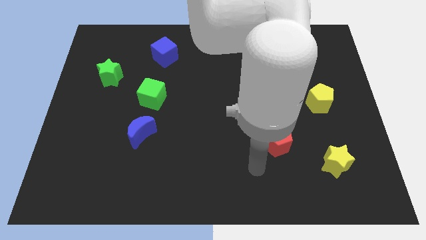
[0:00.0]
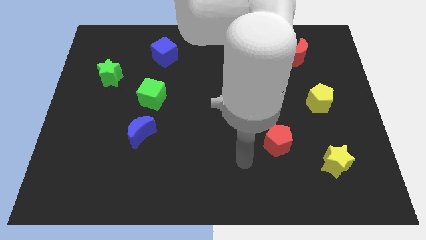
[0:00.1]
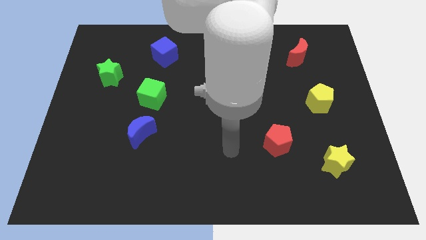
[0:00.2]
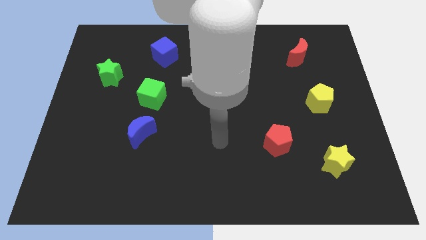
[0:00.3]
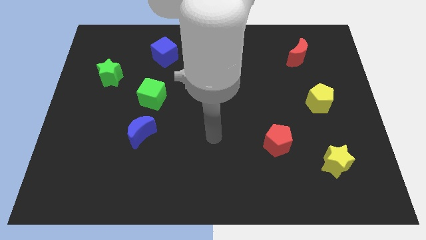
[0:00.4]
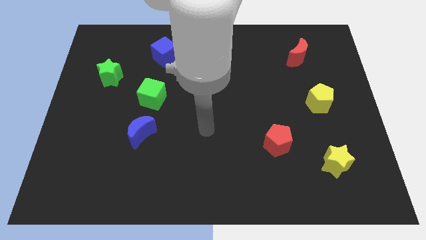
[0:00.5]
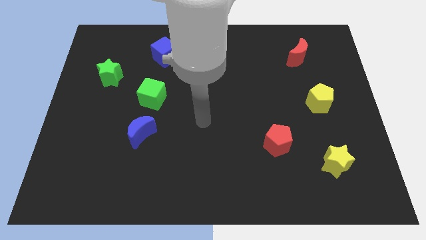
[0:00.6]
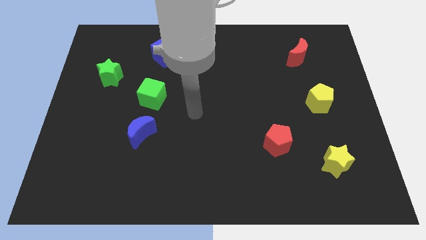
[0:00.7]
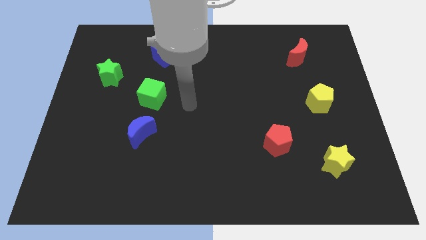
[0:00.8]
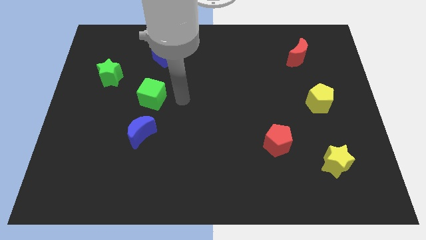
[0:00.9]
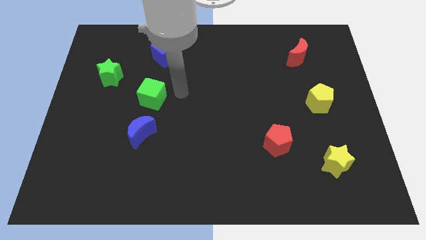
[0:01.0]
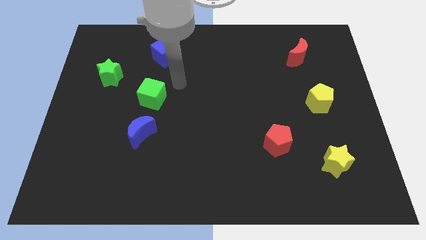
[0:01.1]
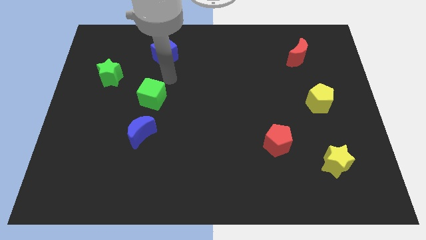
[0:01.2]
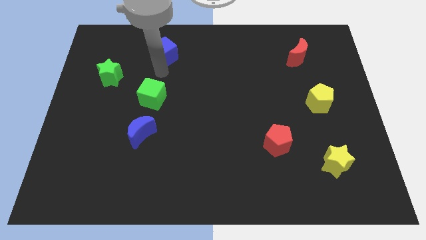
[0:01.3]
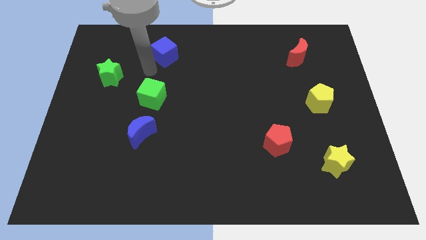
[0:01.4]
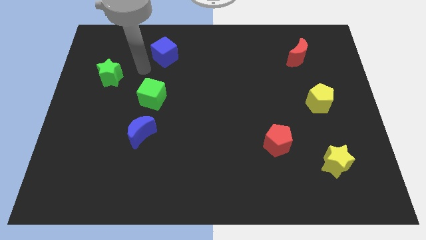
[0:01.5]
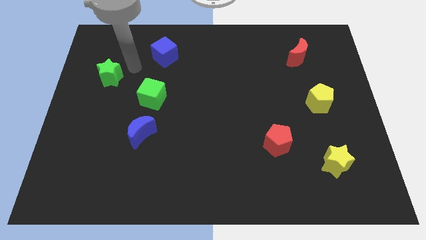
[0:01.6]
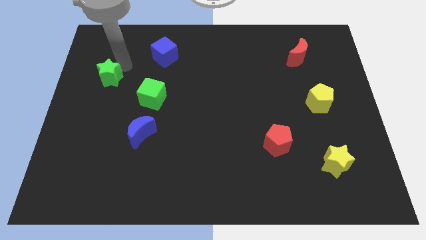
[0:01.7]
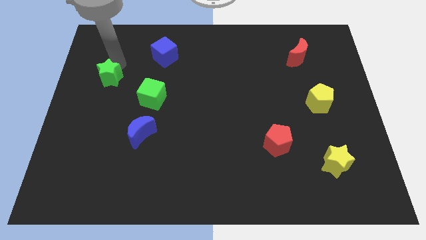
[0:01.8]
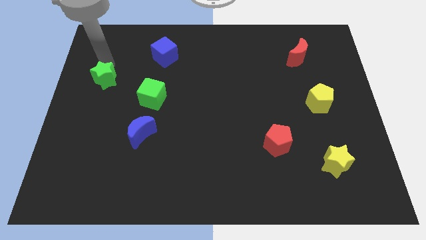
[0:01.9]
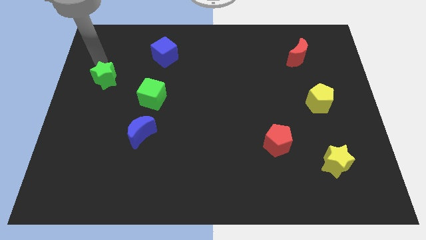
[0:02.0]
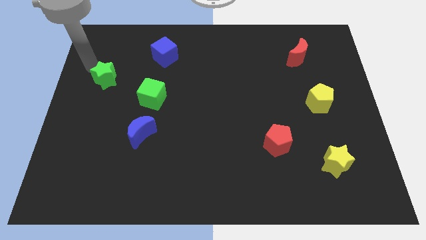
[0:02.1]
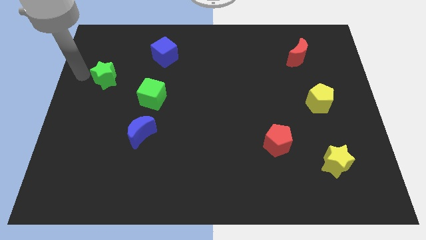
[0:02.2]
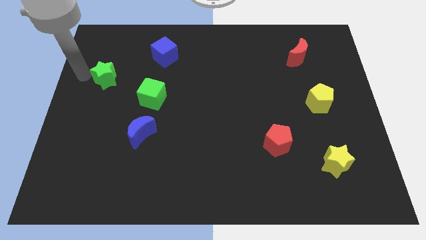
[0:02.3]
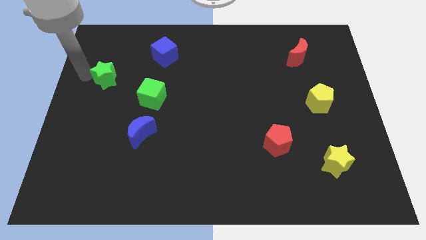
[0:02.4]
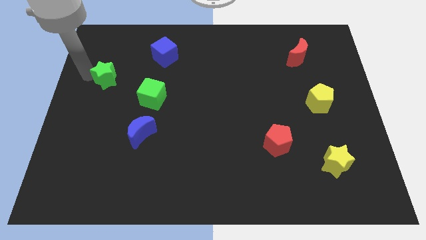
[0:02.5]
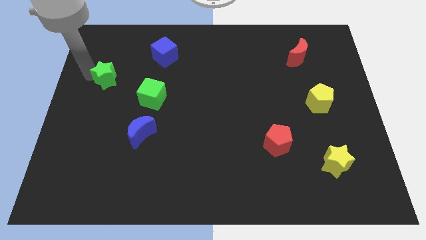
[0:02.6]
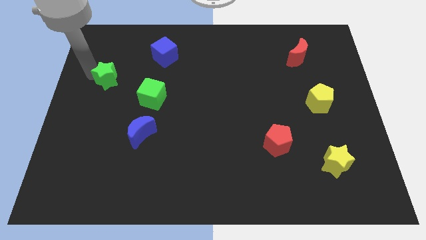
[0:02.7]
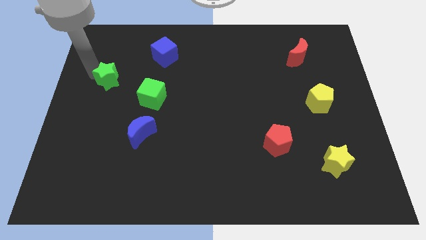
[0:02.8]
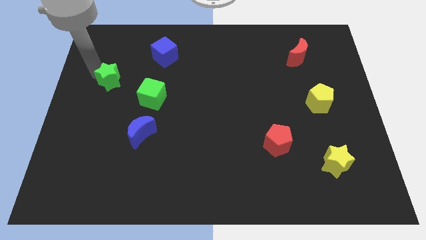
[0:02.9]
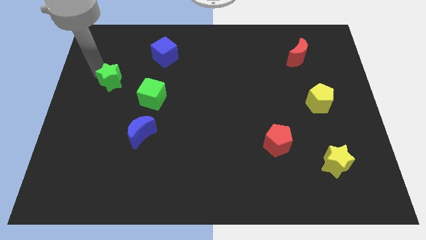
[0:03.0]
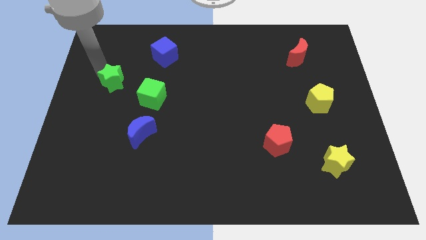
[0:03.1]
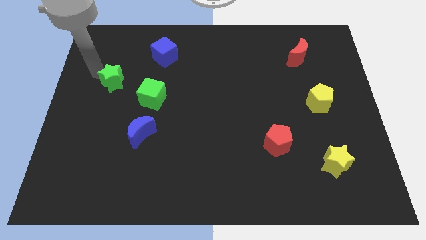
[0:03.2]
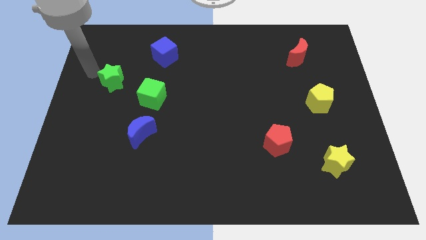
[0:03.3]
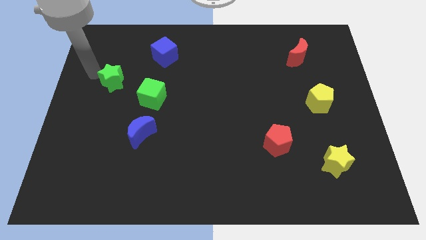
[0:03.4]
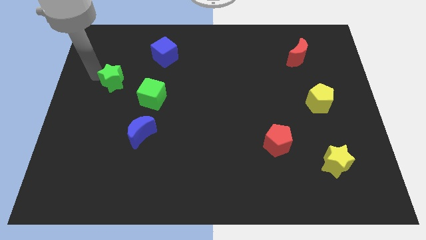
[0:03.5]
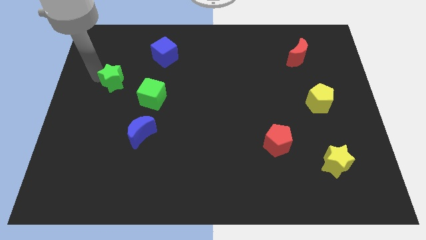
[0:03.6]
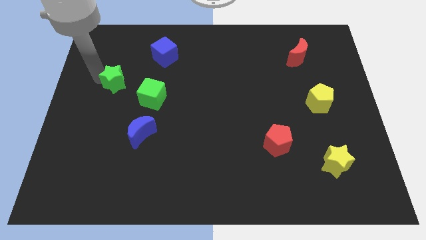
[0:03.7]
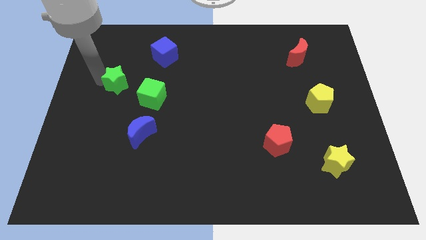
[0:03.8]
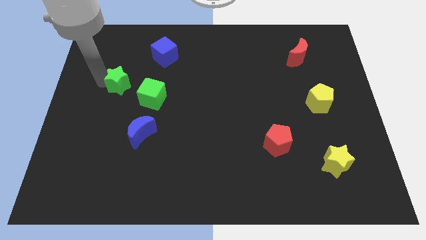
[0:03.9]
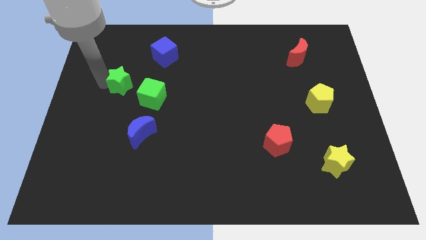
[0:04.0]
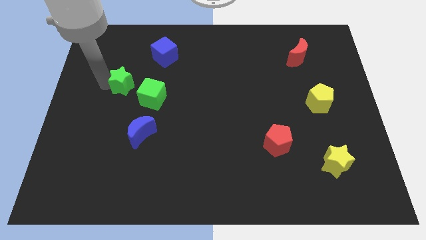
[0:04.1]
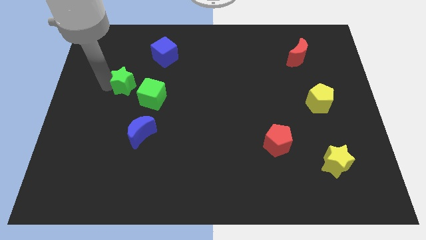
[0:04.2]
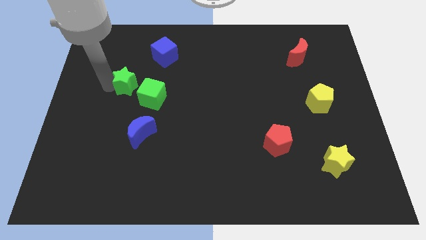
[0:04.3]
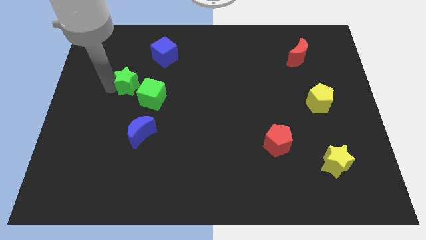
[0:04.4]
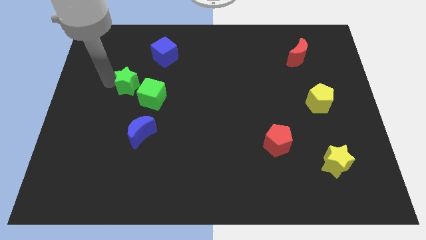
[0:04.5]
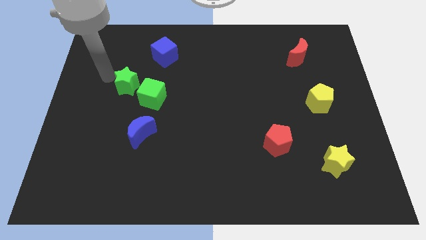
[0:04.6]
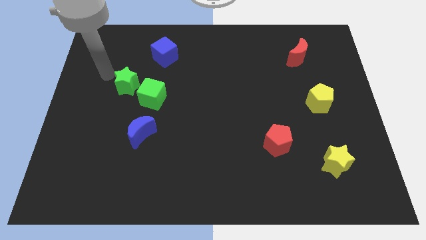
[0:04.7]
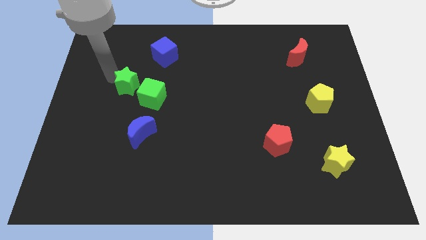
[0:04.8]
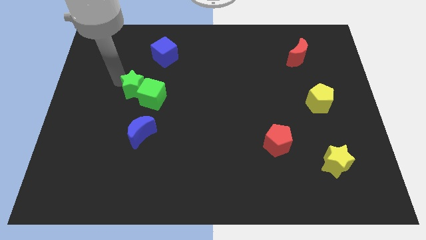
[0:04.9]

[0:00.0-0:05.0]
put the green star to the green cube

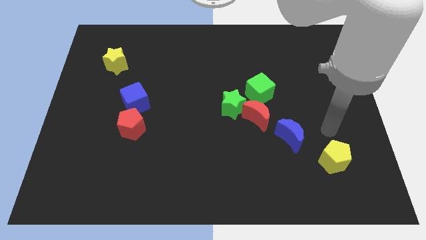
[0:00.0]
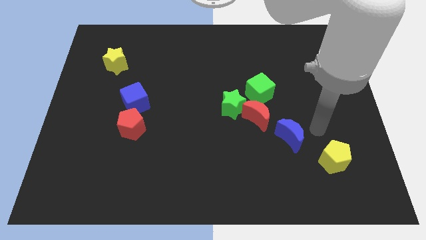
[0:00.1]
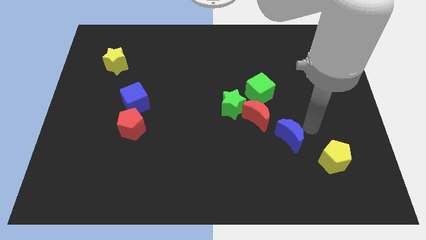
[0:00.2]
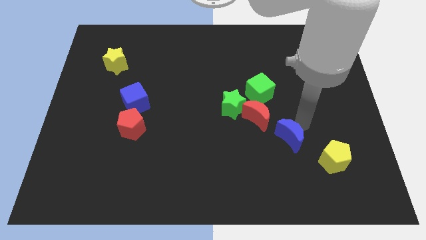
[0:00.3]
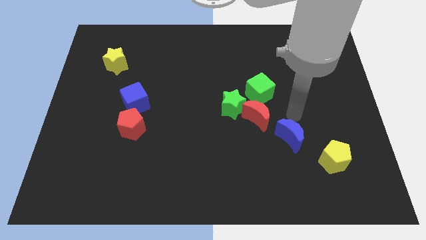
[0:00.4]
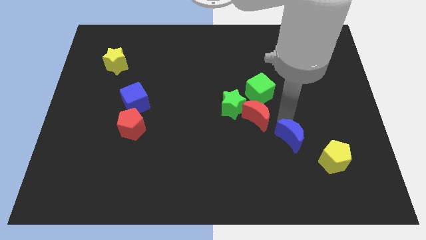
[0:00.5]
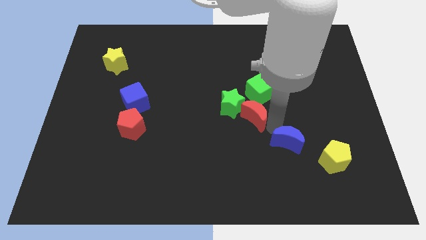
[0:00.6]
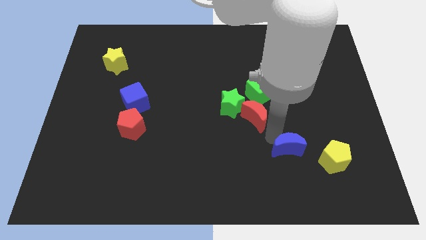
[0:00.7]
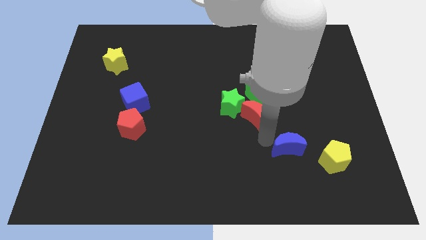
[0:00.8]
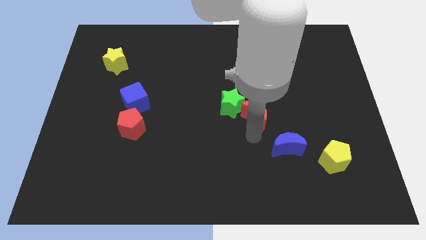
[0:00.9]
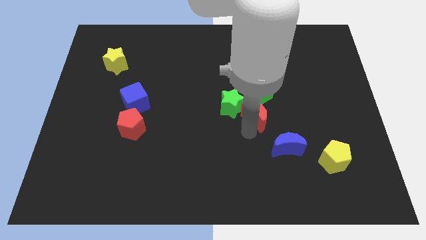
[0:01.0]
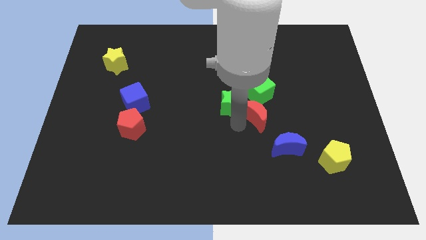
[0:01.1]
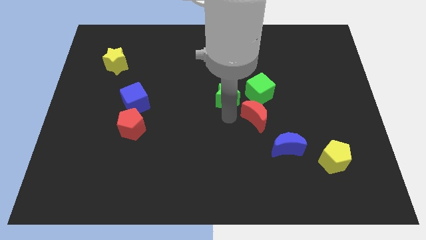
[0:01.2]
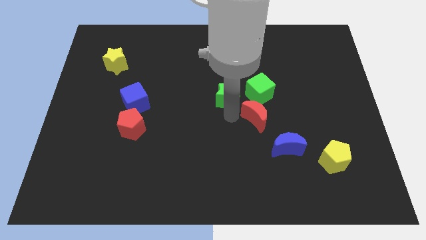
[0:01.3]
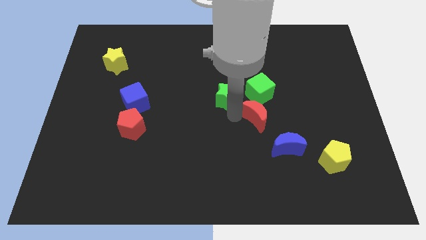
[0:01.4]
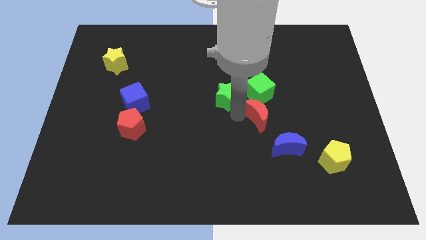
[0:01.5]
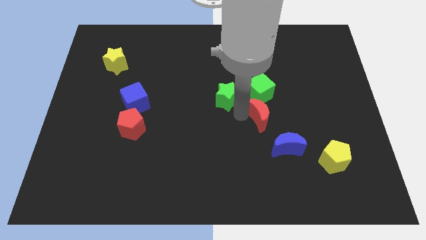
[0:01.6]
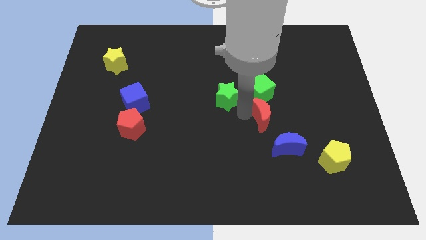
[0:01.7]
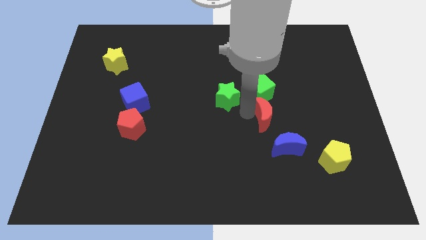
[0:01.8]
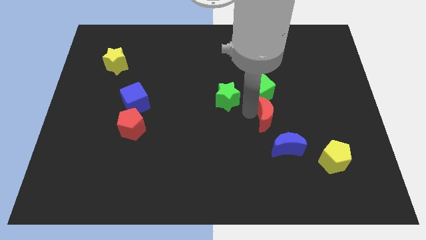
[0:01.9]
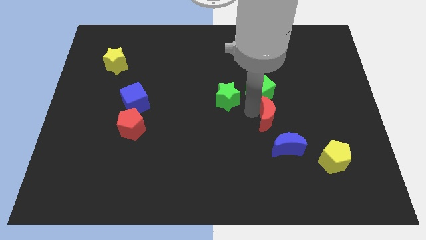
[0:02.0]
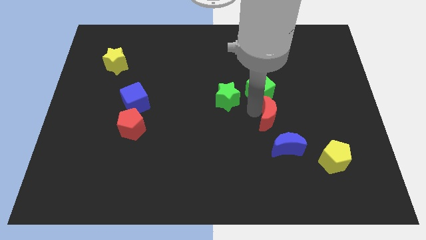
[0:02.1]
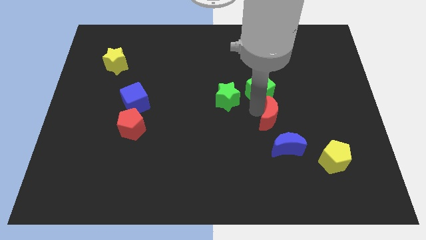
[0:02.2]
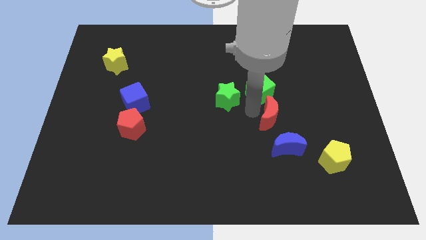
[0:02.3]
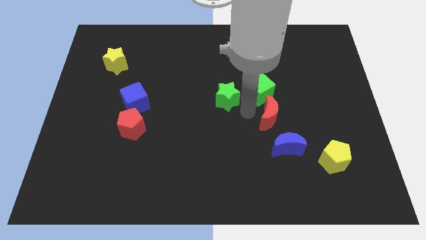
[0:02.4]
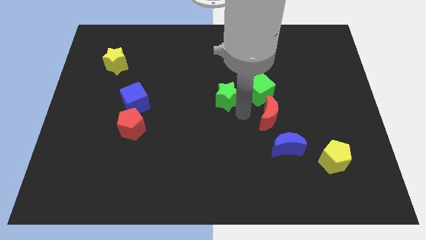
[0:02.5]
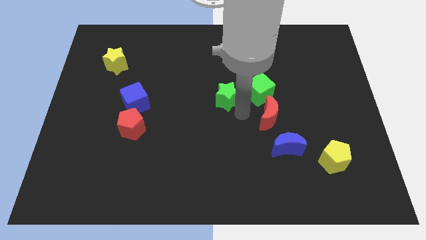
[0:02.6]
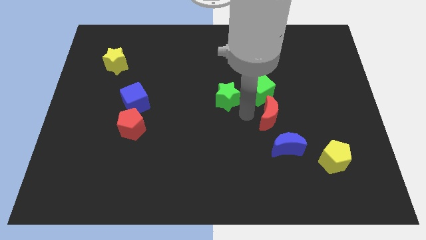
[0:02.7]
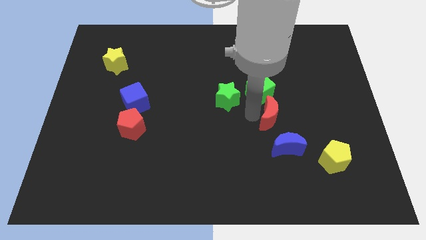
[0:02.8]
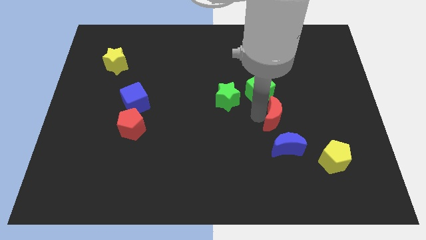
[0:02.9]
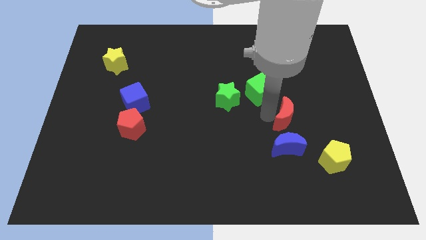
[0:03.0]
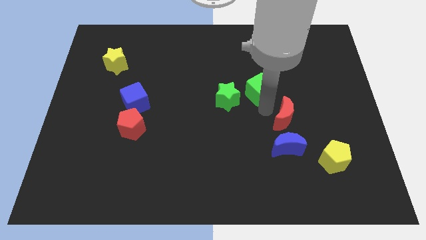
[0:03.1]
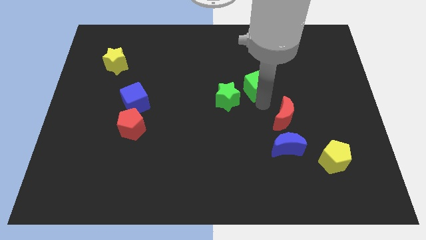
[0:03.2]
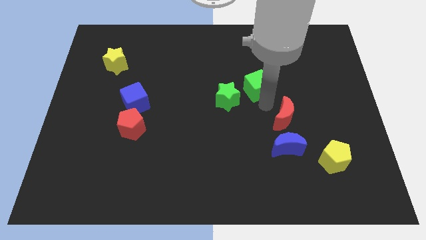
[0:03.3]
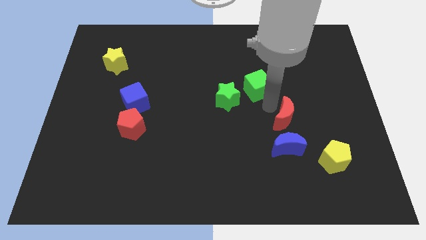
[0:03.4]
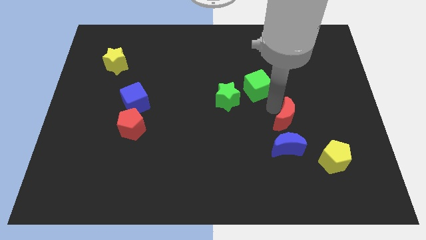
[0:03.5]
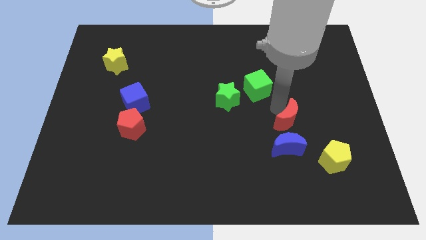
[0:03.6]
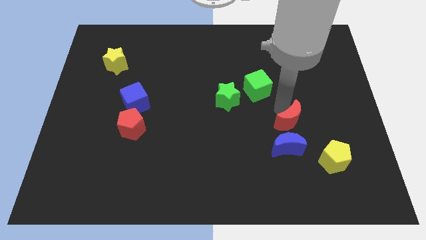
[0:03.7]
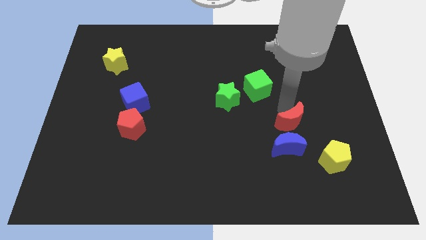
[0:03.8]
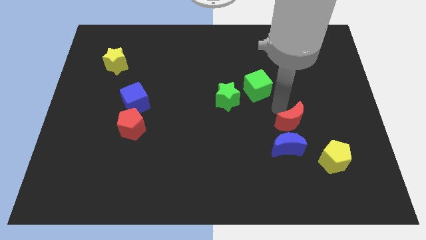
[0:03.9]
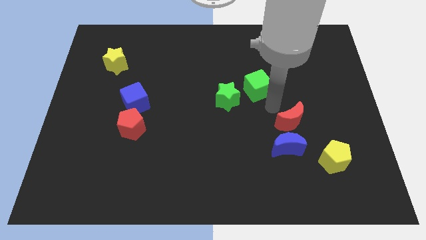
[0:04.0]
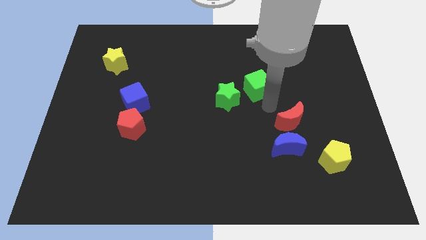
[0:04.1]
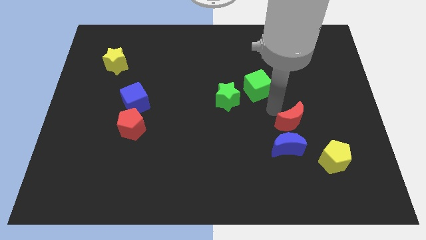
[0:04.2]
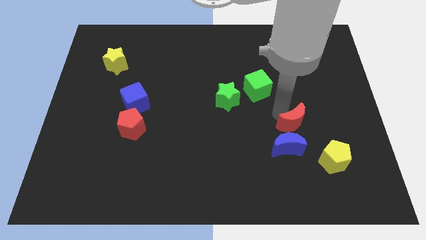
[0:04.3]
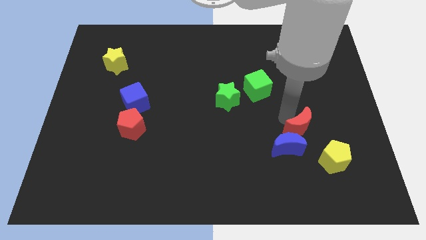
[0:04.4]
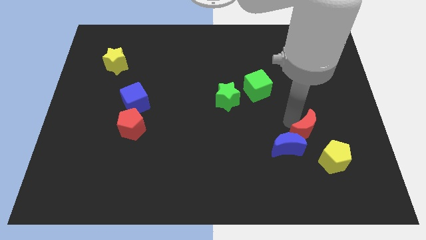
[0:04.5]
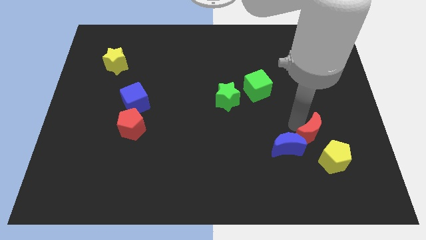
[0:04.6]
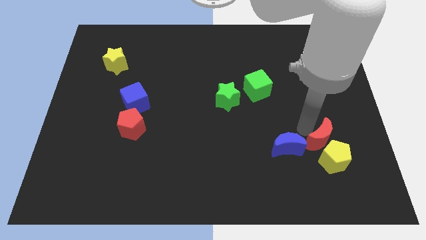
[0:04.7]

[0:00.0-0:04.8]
put the red moon to the yellow pentagon
